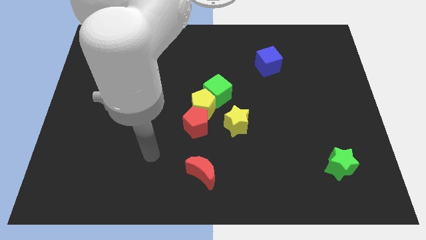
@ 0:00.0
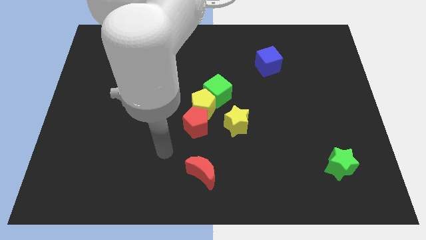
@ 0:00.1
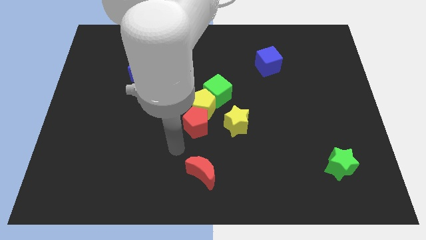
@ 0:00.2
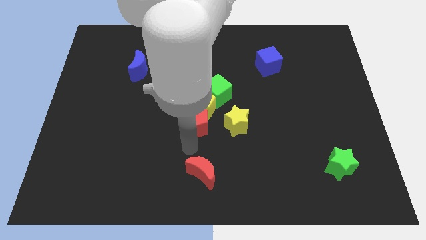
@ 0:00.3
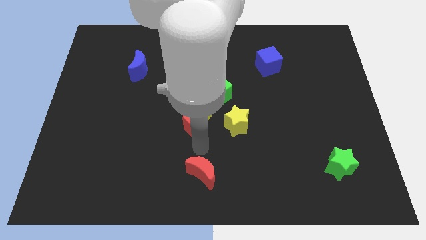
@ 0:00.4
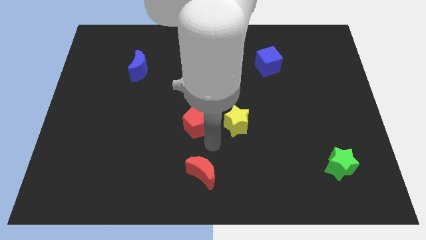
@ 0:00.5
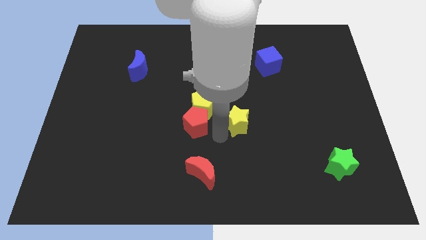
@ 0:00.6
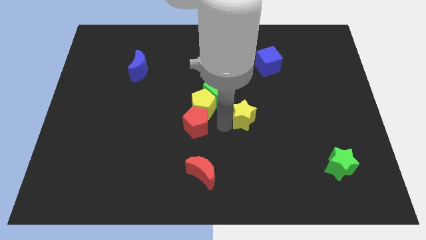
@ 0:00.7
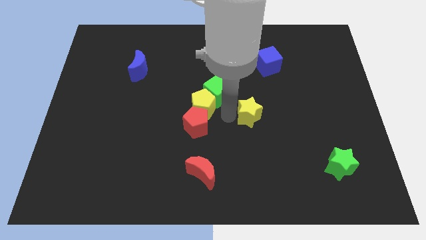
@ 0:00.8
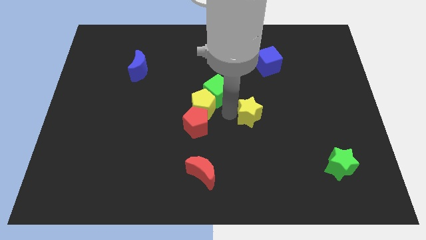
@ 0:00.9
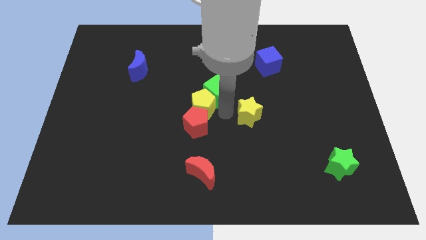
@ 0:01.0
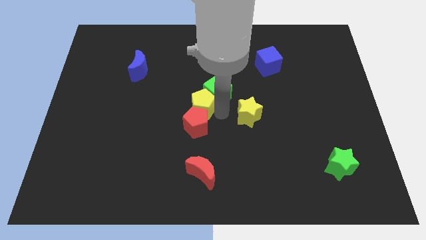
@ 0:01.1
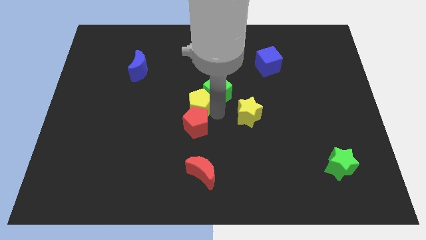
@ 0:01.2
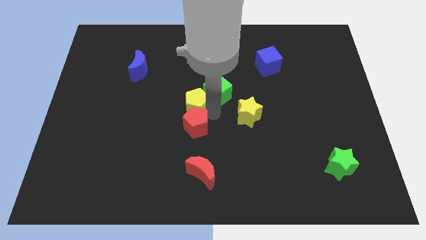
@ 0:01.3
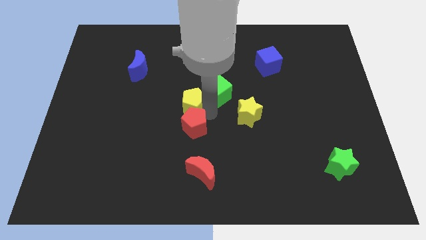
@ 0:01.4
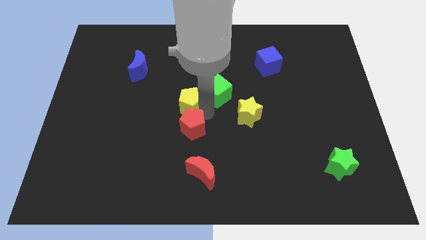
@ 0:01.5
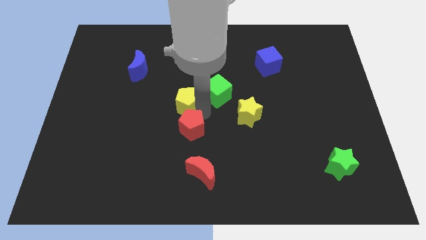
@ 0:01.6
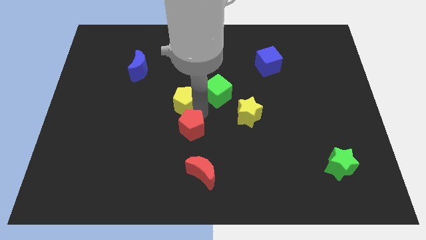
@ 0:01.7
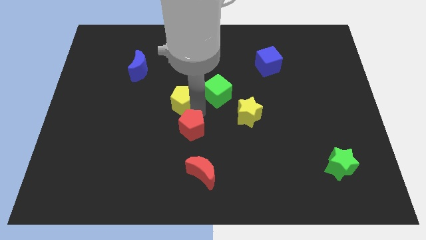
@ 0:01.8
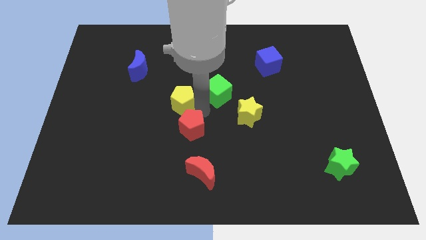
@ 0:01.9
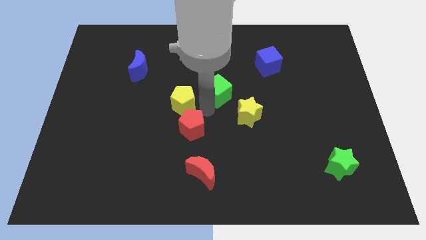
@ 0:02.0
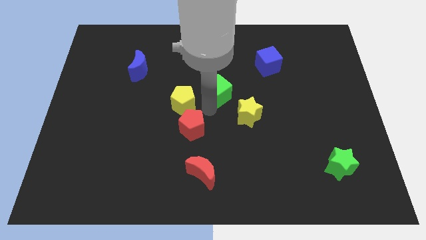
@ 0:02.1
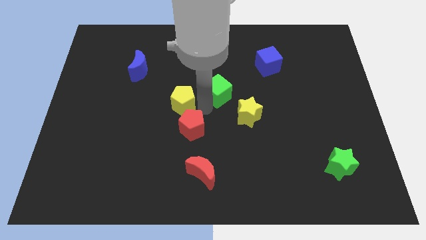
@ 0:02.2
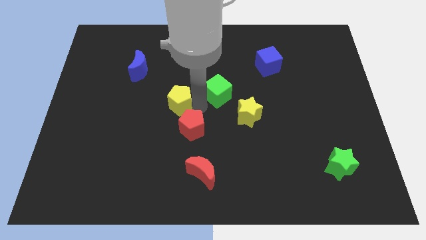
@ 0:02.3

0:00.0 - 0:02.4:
separate the yellow pentagon from the group of blocks

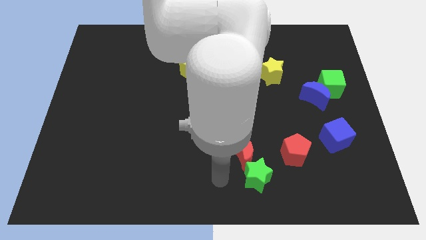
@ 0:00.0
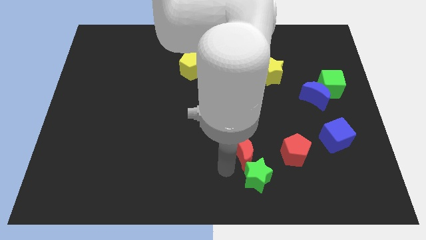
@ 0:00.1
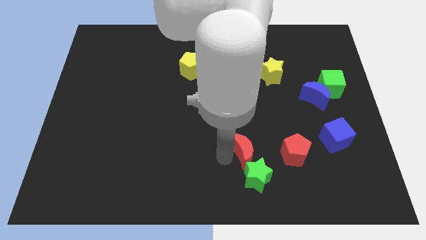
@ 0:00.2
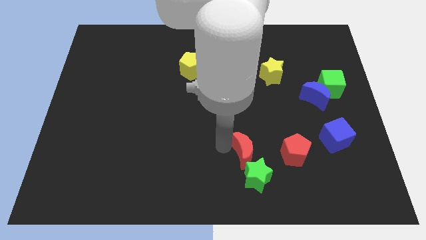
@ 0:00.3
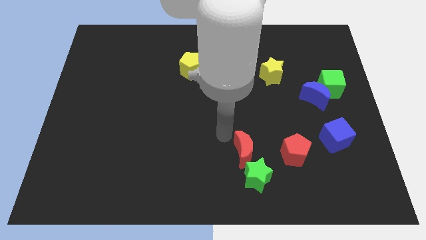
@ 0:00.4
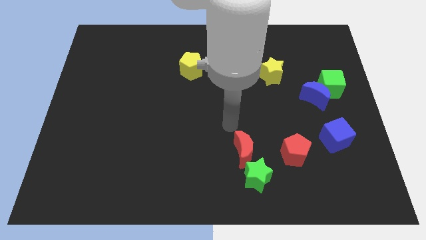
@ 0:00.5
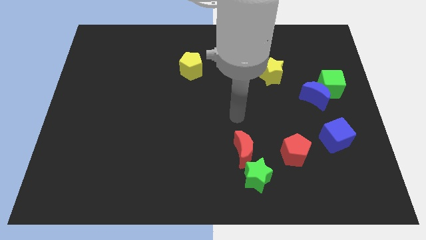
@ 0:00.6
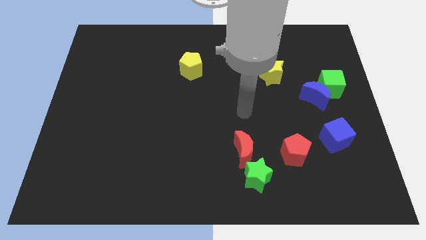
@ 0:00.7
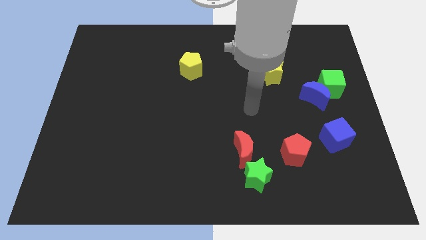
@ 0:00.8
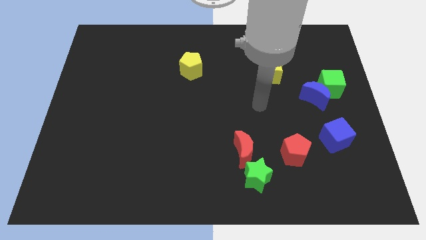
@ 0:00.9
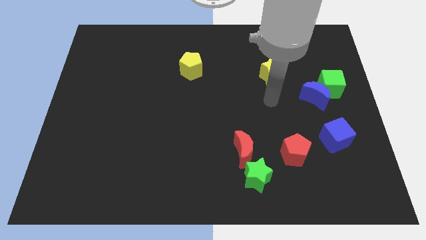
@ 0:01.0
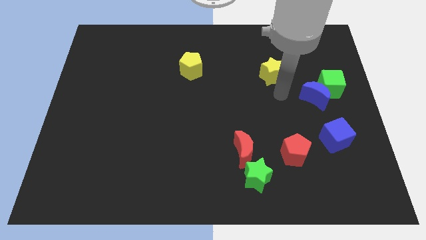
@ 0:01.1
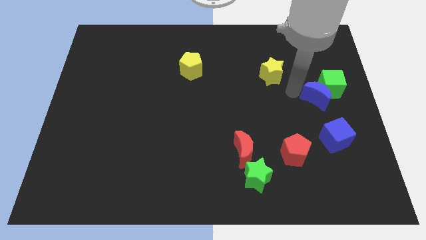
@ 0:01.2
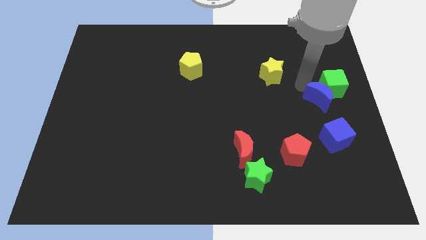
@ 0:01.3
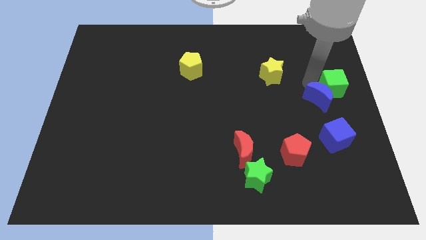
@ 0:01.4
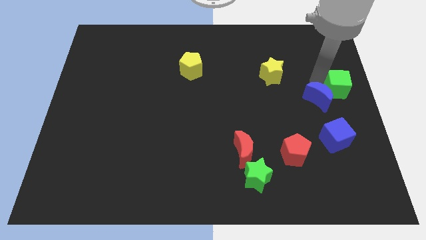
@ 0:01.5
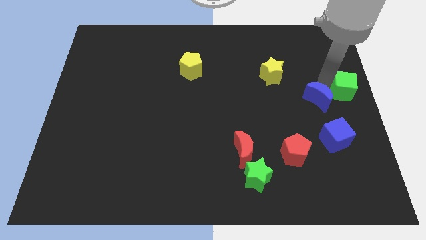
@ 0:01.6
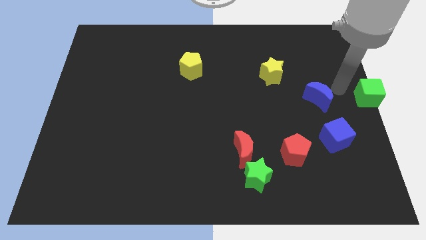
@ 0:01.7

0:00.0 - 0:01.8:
move the blue moon away from the green cube

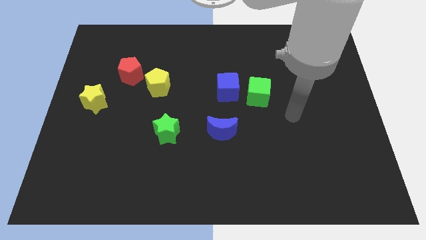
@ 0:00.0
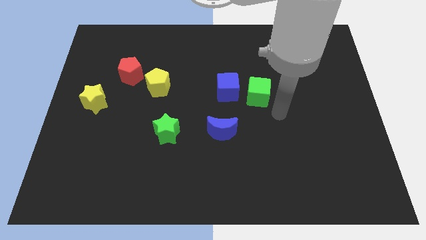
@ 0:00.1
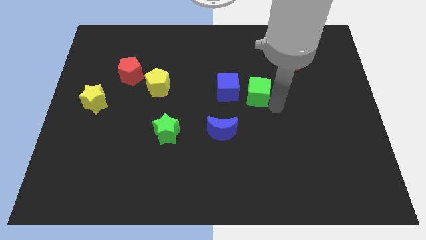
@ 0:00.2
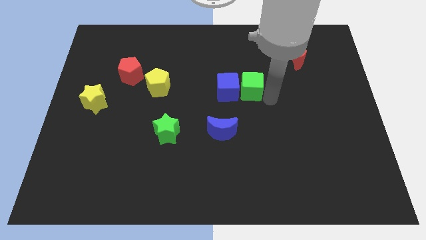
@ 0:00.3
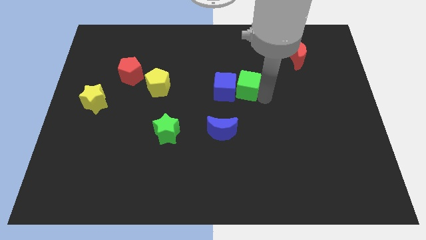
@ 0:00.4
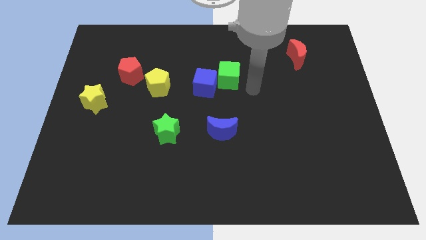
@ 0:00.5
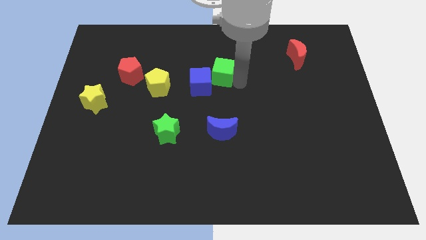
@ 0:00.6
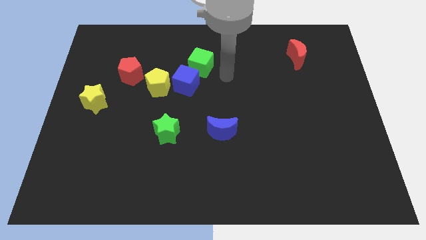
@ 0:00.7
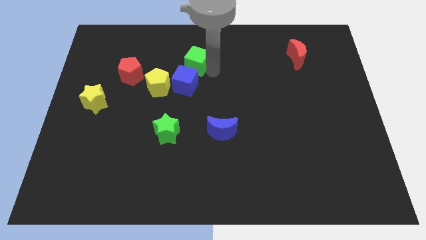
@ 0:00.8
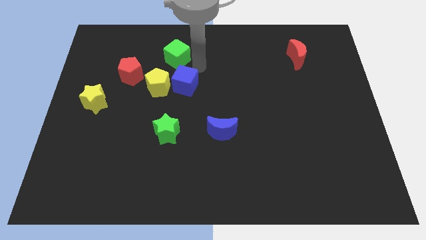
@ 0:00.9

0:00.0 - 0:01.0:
pull the blue cube apart from the green cube

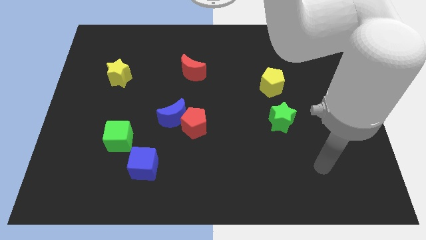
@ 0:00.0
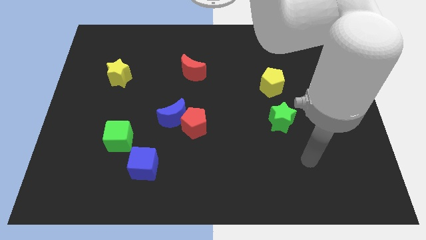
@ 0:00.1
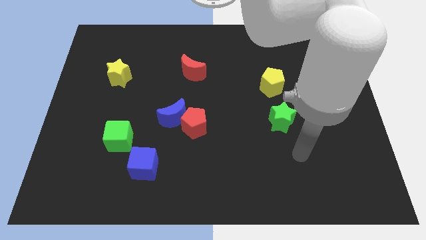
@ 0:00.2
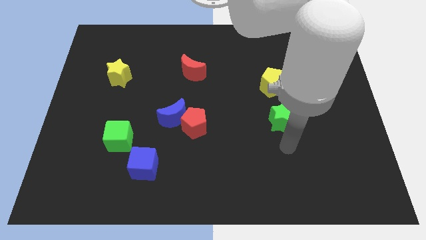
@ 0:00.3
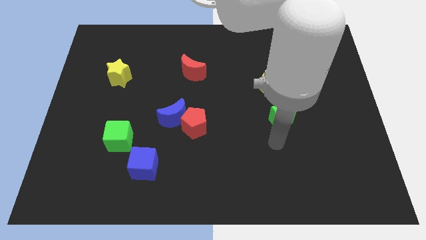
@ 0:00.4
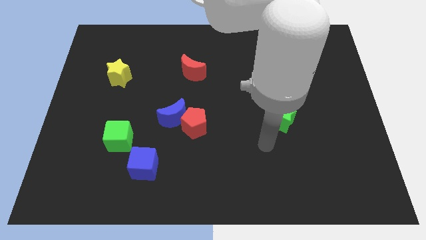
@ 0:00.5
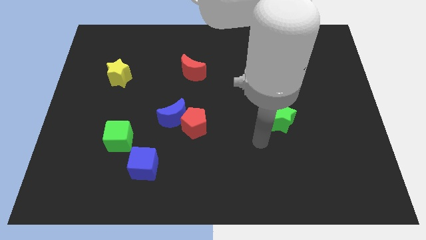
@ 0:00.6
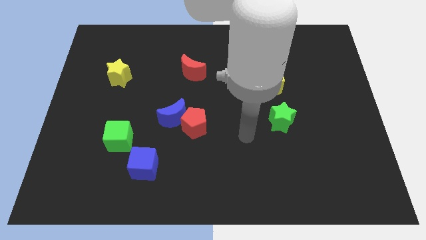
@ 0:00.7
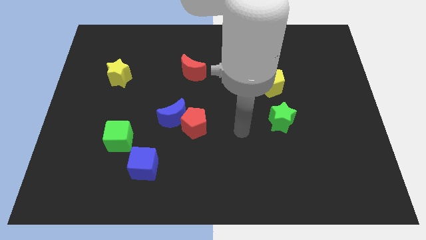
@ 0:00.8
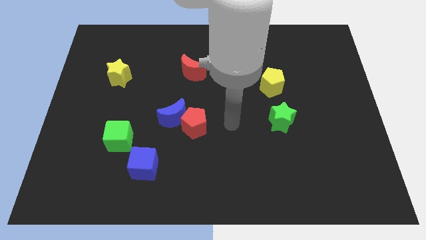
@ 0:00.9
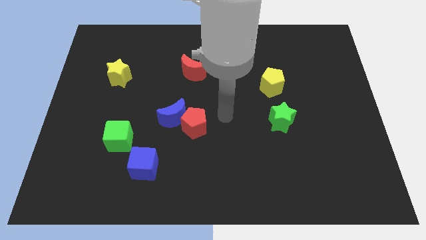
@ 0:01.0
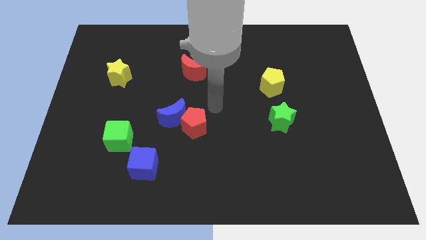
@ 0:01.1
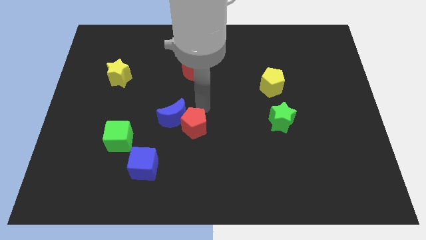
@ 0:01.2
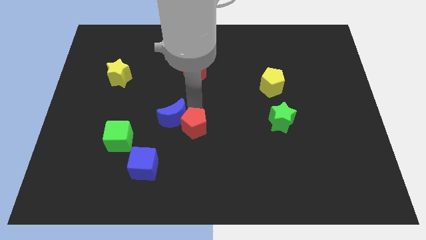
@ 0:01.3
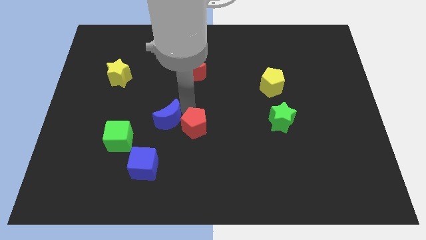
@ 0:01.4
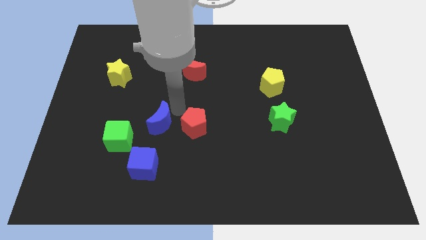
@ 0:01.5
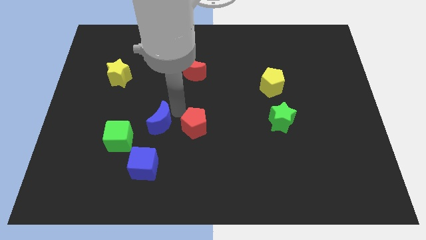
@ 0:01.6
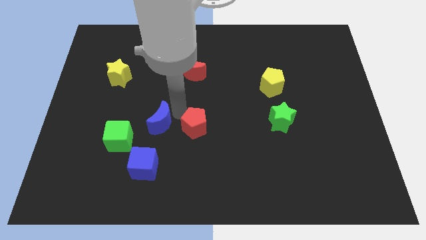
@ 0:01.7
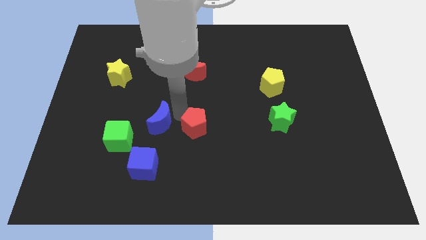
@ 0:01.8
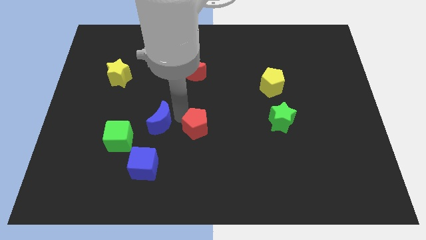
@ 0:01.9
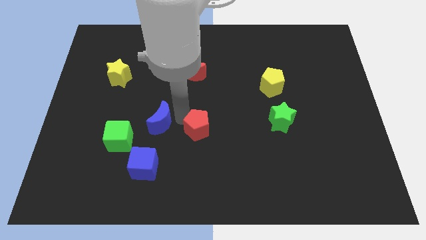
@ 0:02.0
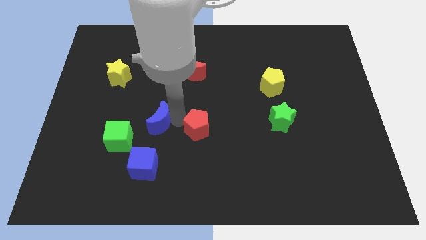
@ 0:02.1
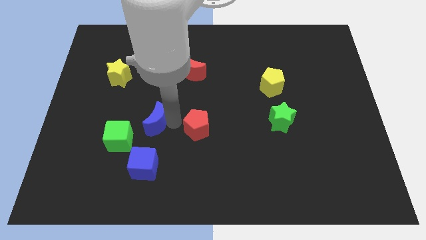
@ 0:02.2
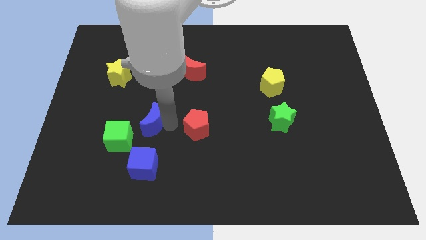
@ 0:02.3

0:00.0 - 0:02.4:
move the red pentagon away from the blue moon

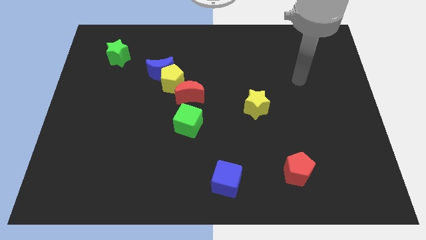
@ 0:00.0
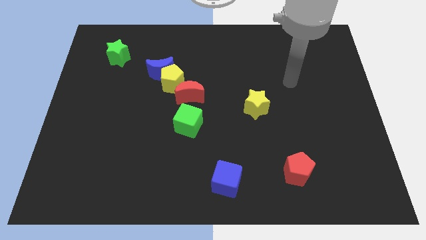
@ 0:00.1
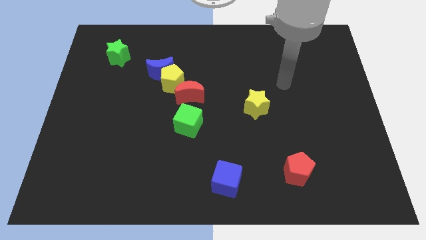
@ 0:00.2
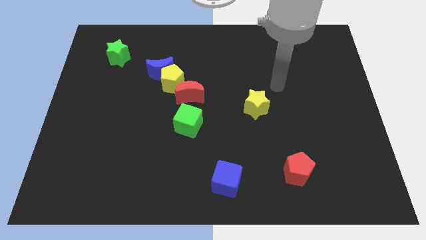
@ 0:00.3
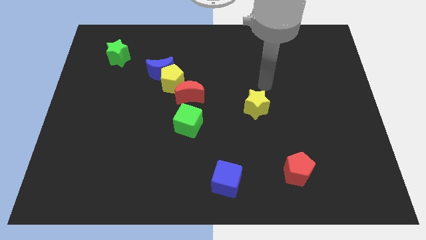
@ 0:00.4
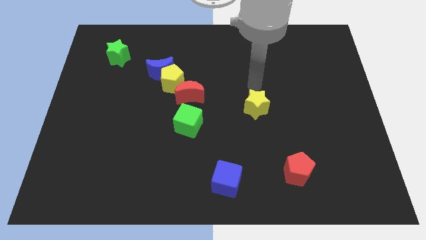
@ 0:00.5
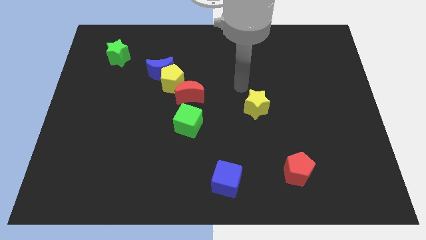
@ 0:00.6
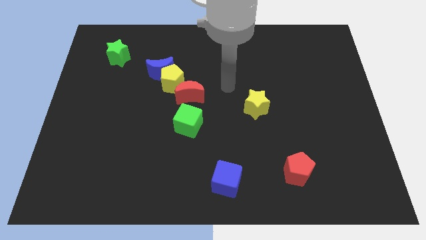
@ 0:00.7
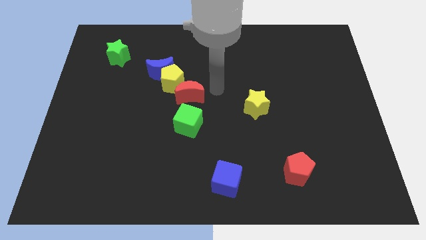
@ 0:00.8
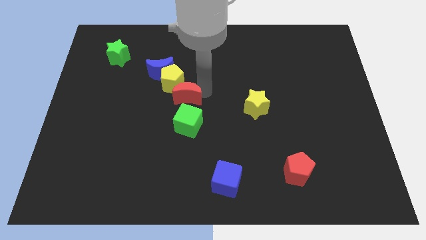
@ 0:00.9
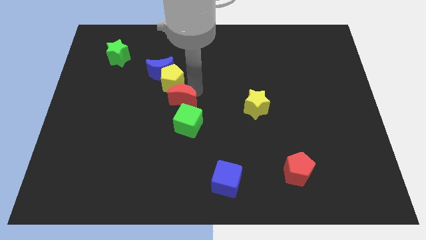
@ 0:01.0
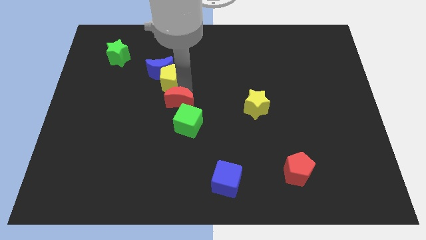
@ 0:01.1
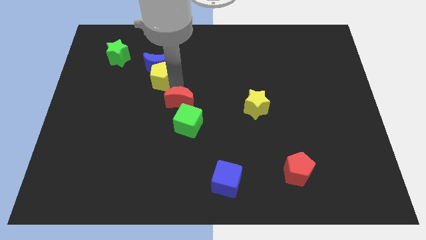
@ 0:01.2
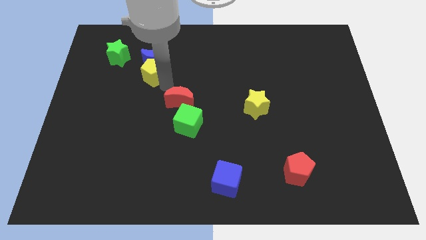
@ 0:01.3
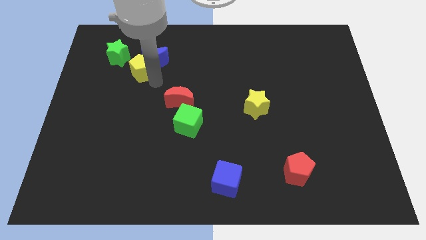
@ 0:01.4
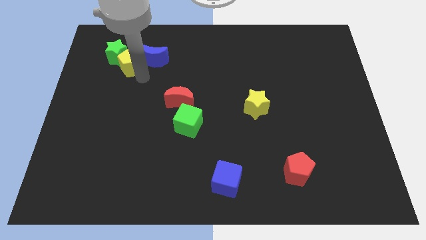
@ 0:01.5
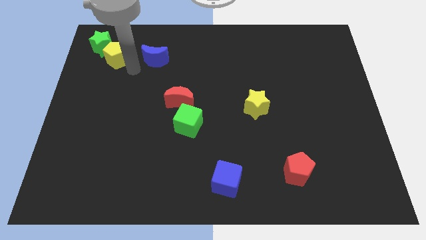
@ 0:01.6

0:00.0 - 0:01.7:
separate the blue moon from the yellow pentagon
